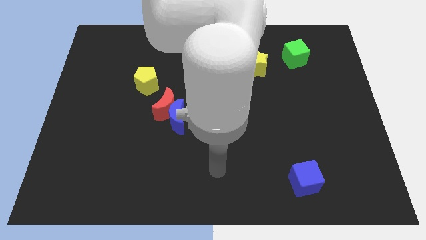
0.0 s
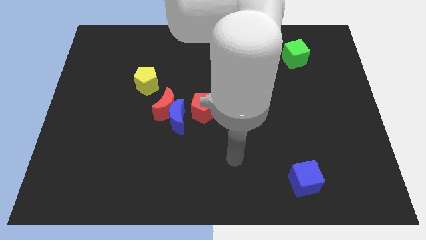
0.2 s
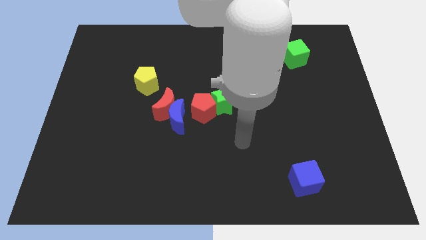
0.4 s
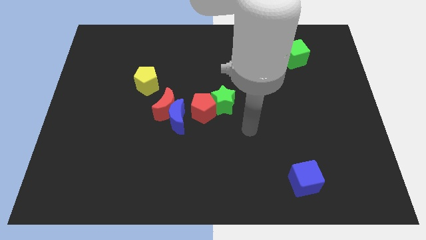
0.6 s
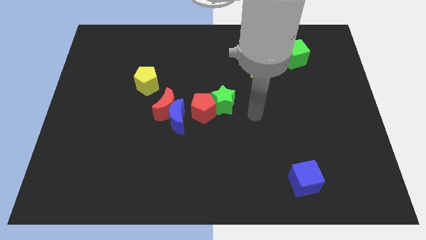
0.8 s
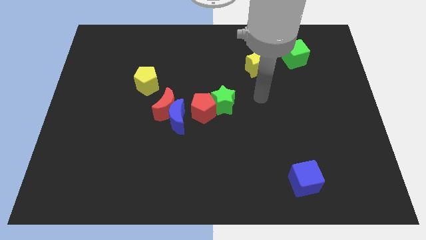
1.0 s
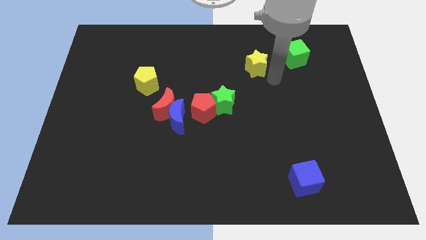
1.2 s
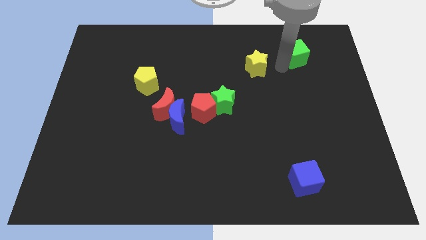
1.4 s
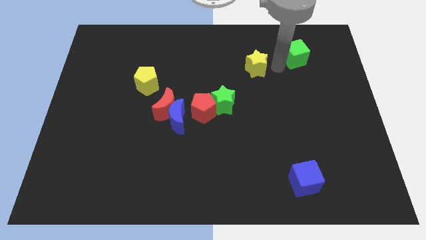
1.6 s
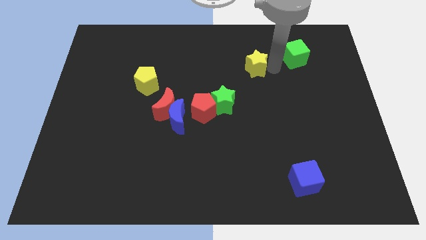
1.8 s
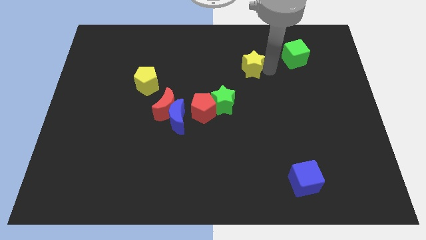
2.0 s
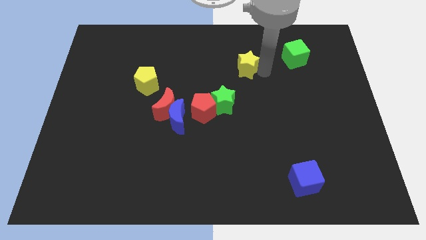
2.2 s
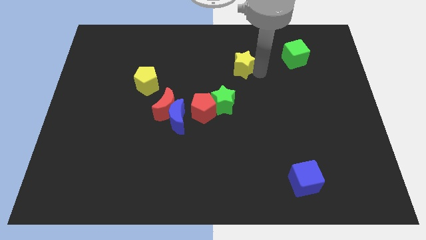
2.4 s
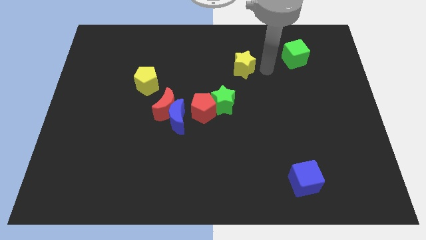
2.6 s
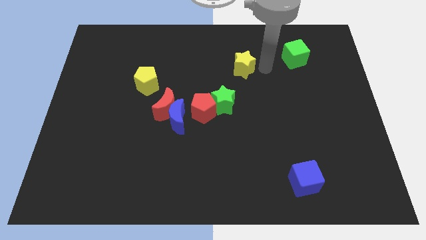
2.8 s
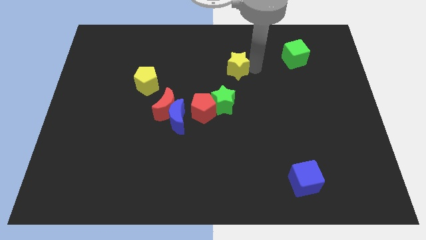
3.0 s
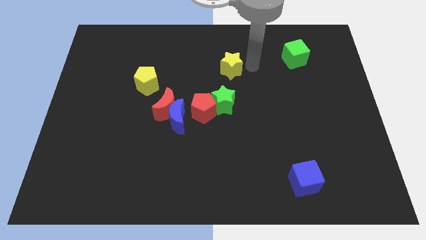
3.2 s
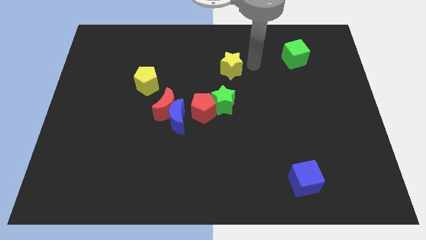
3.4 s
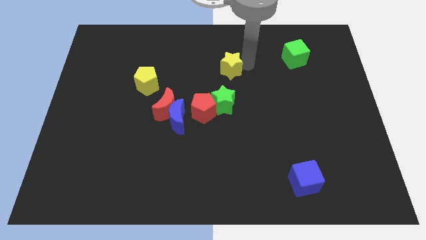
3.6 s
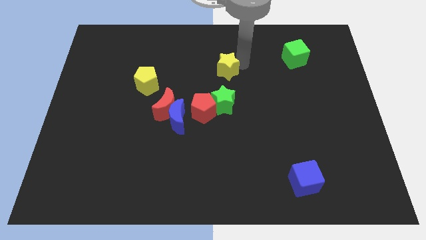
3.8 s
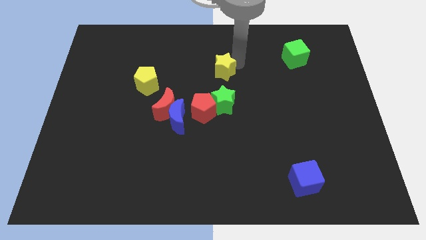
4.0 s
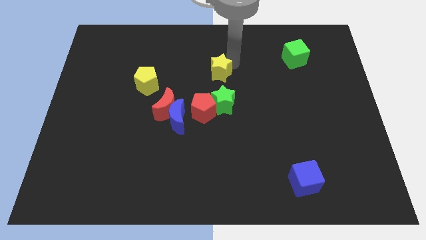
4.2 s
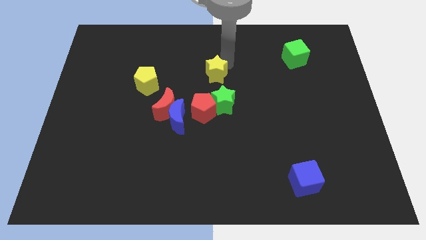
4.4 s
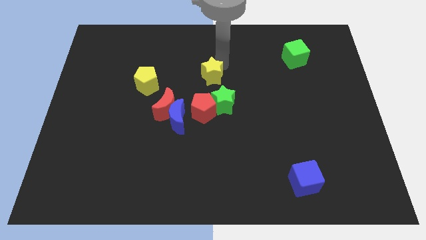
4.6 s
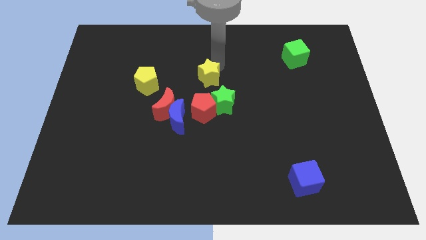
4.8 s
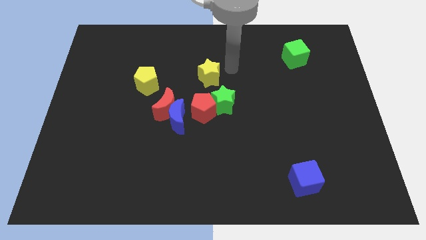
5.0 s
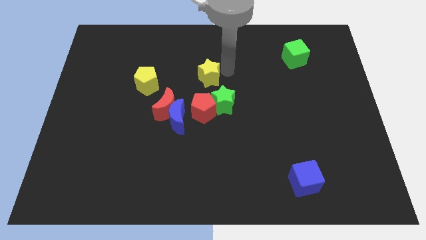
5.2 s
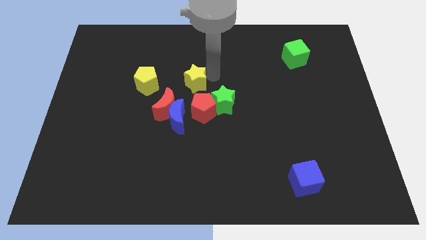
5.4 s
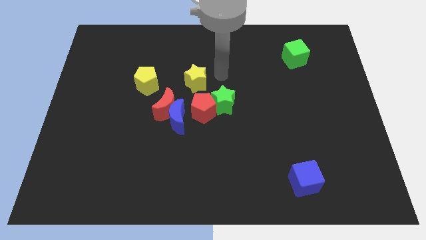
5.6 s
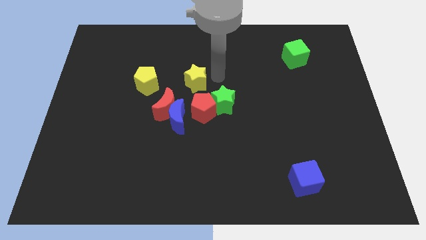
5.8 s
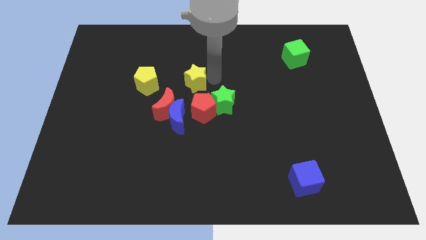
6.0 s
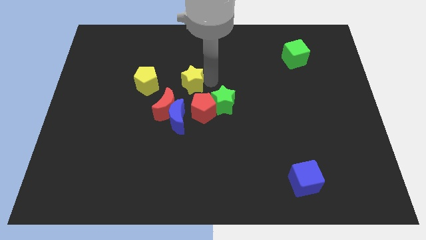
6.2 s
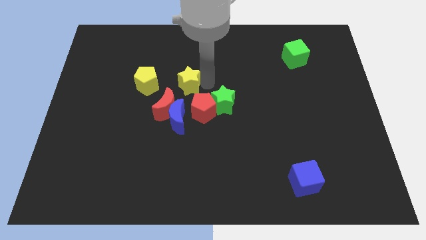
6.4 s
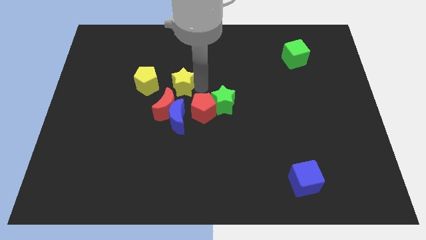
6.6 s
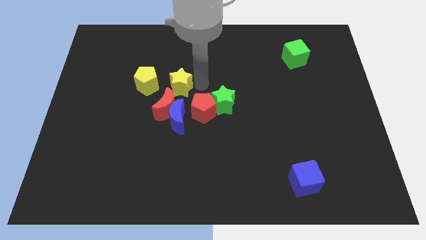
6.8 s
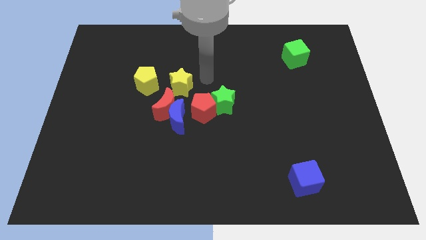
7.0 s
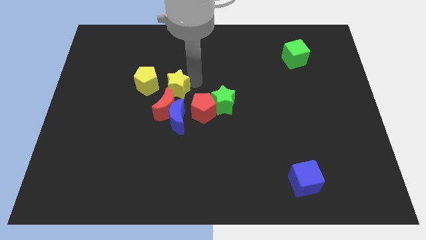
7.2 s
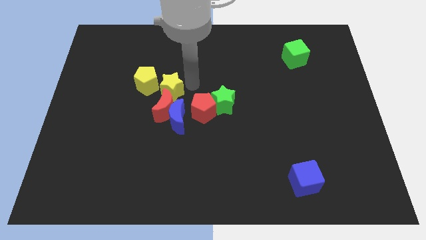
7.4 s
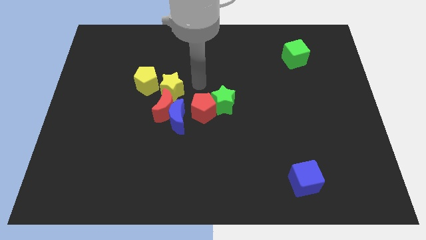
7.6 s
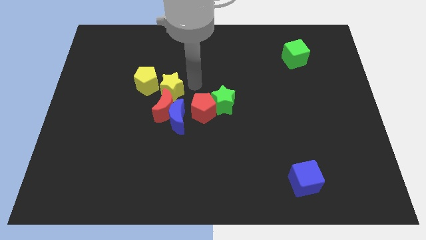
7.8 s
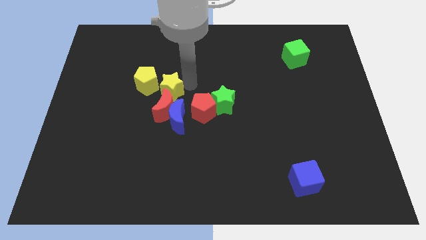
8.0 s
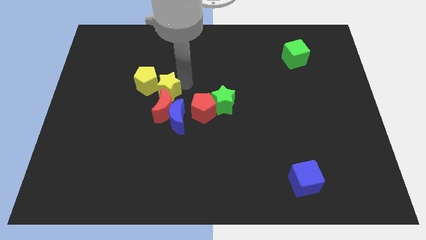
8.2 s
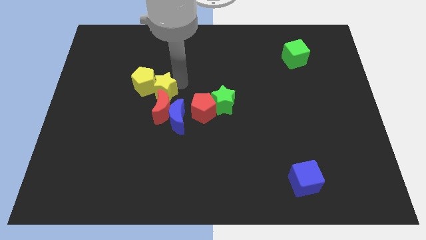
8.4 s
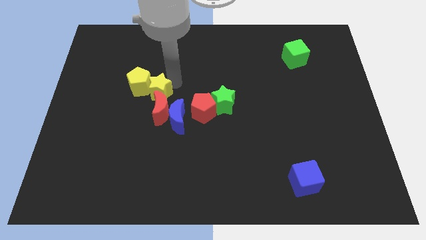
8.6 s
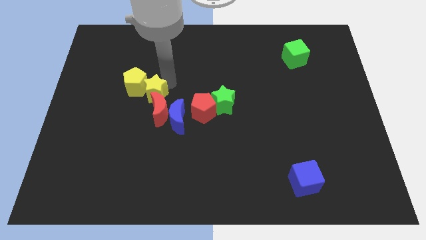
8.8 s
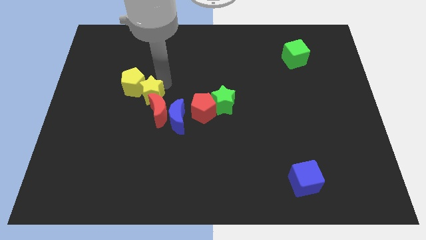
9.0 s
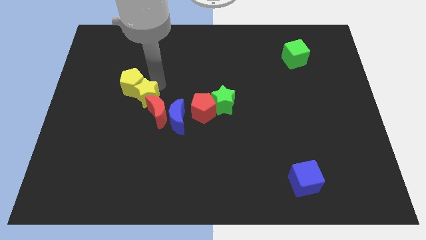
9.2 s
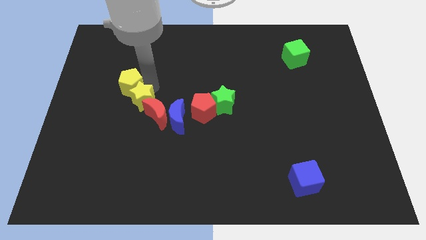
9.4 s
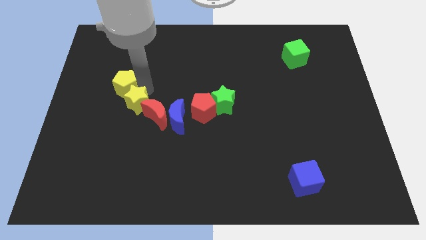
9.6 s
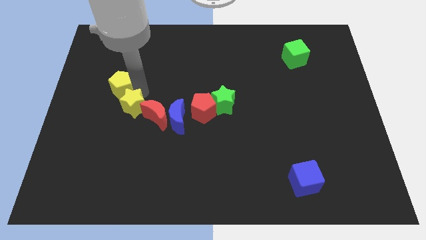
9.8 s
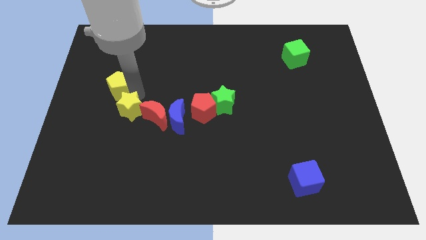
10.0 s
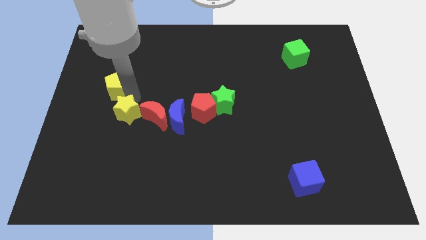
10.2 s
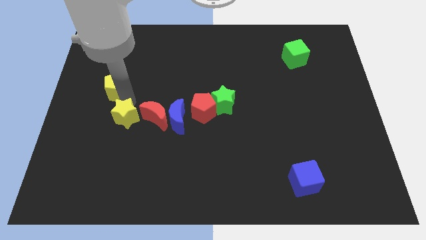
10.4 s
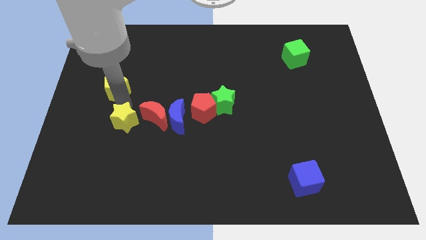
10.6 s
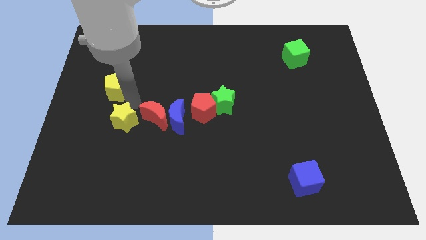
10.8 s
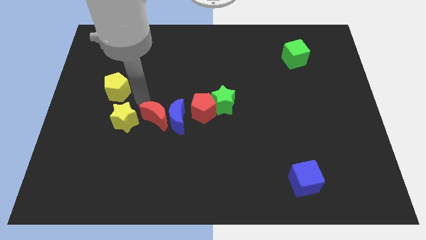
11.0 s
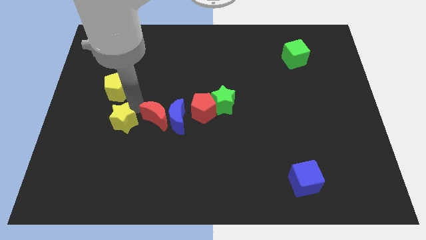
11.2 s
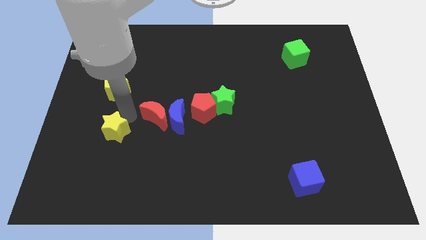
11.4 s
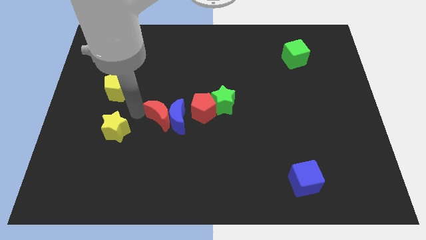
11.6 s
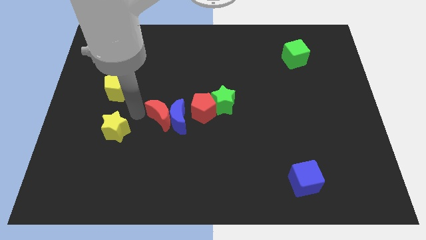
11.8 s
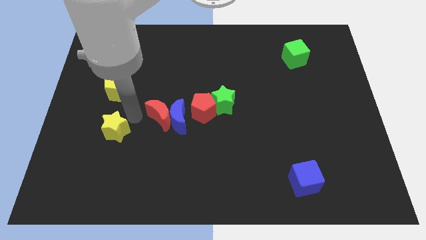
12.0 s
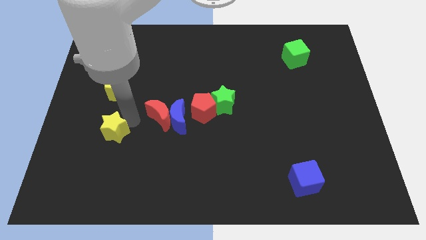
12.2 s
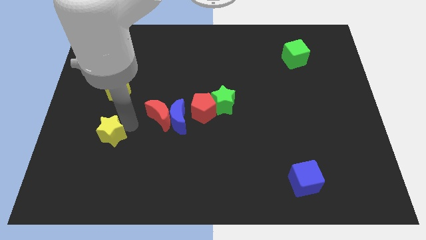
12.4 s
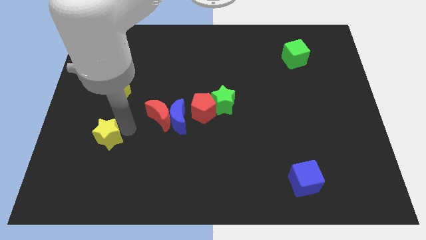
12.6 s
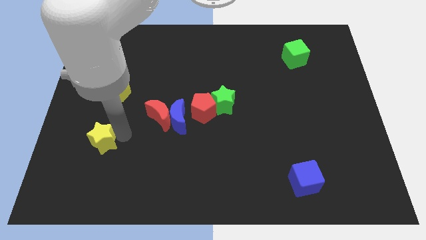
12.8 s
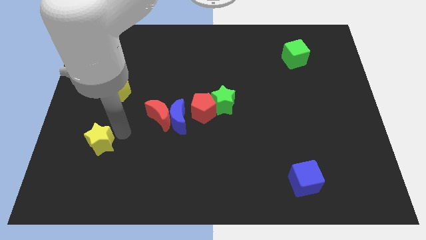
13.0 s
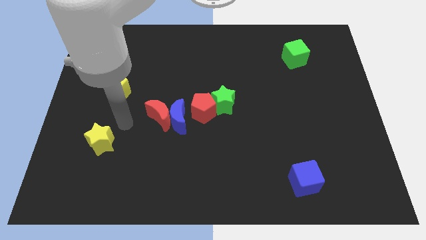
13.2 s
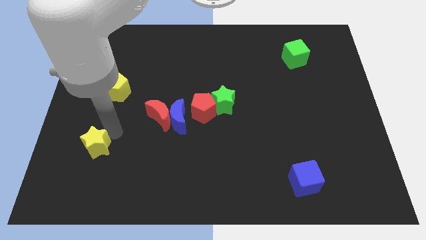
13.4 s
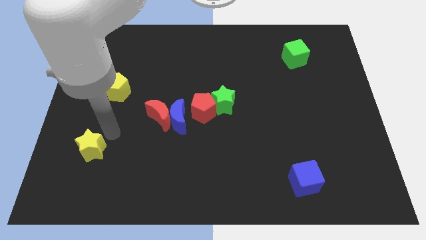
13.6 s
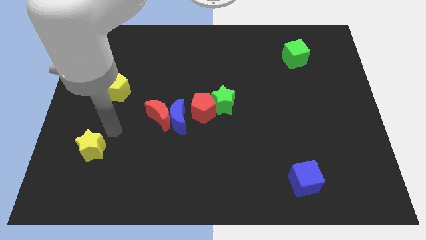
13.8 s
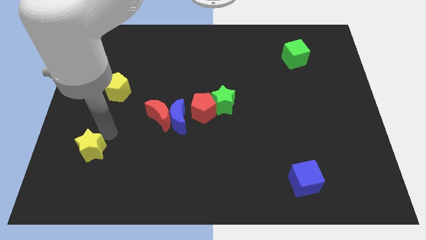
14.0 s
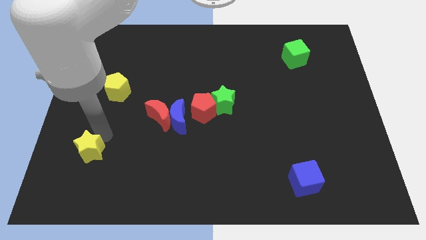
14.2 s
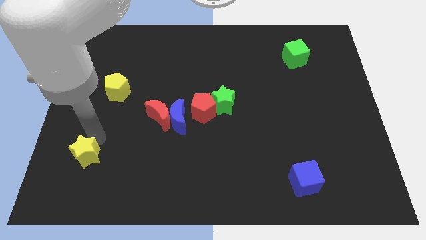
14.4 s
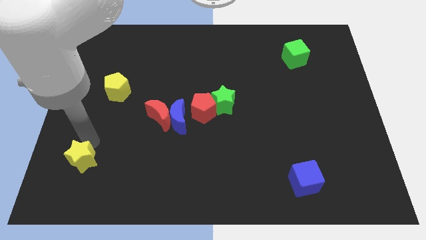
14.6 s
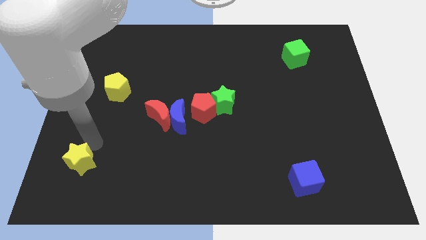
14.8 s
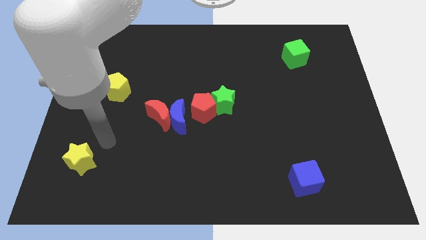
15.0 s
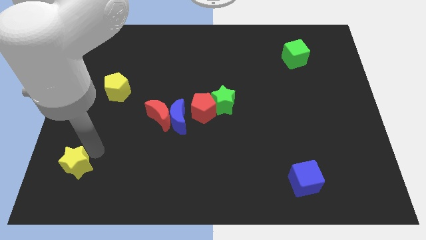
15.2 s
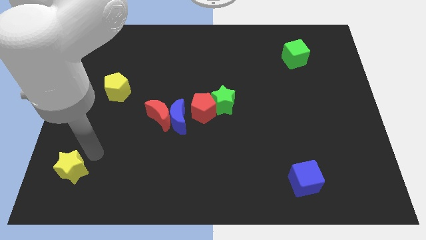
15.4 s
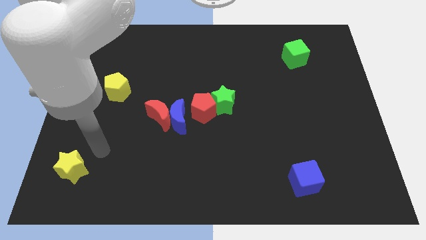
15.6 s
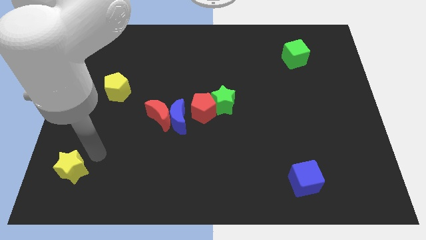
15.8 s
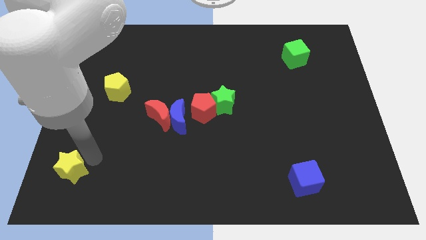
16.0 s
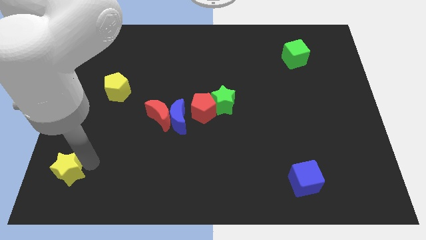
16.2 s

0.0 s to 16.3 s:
put the yellow star to the bottom left
